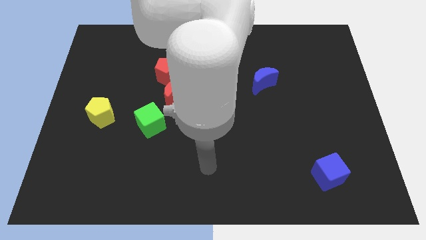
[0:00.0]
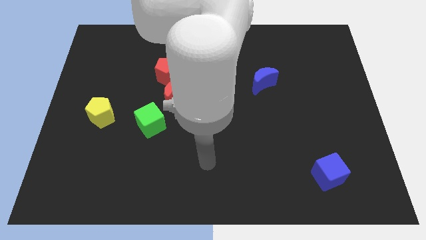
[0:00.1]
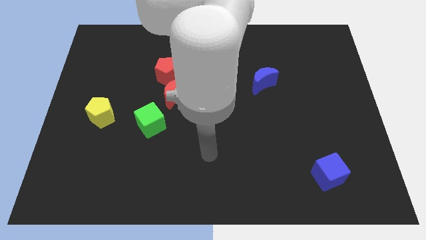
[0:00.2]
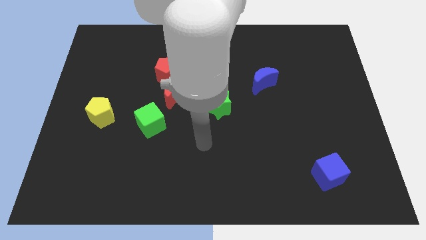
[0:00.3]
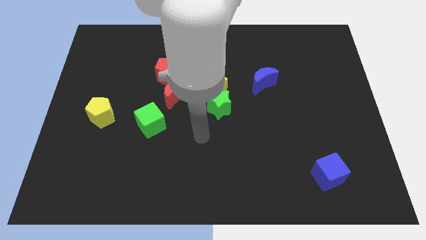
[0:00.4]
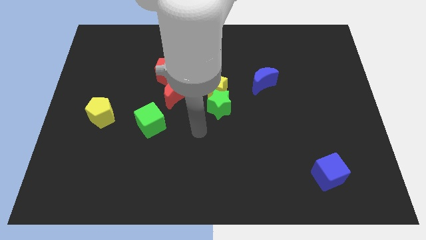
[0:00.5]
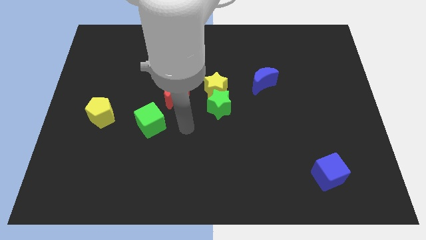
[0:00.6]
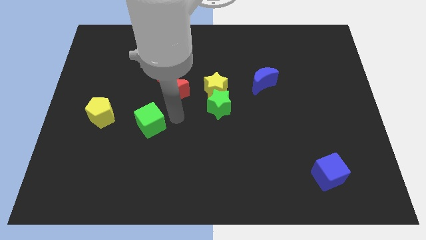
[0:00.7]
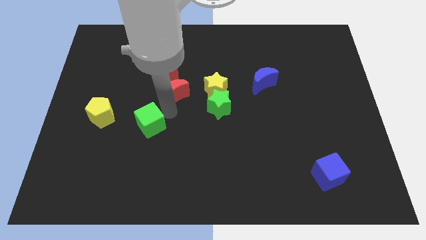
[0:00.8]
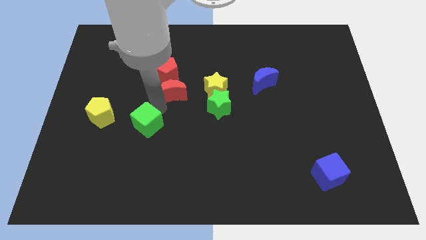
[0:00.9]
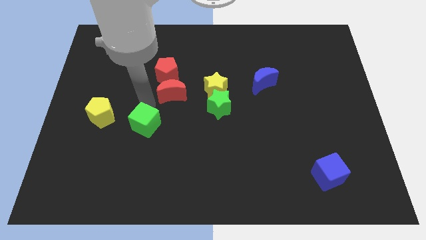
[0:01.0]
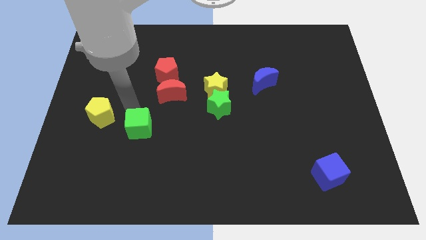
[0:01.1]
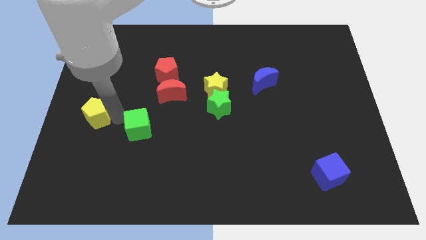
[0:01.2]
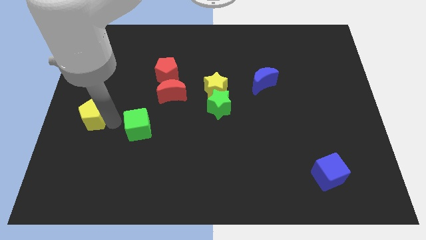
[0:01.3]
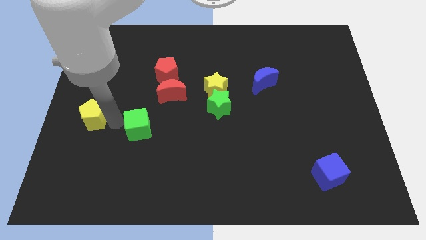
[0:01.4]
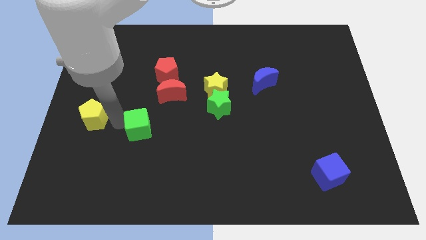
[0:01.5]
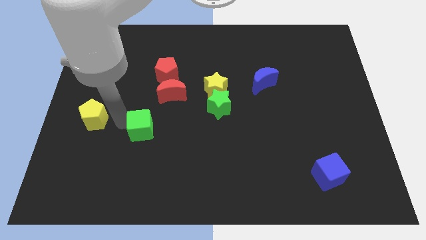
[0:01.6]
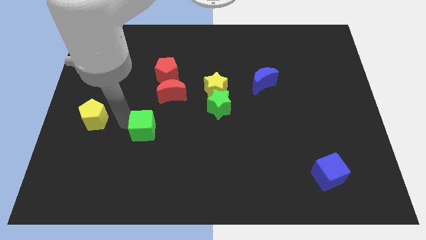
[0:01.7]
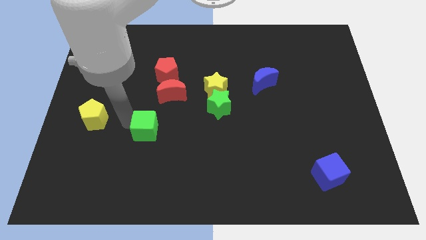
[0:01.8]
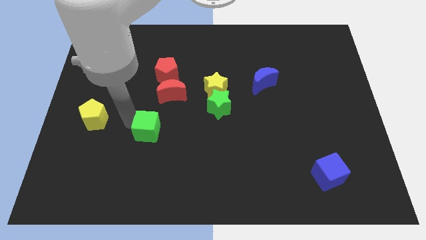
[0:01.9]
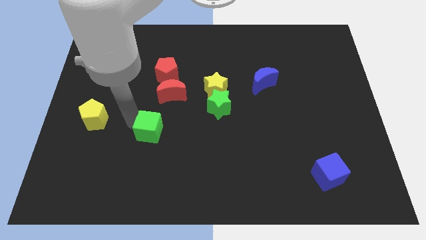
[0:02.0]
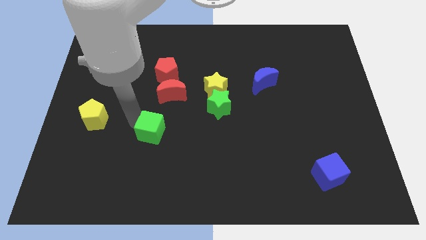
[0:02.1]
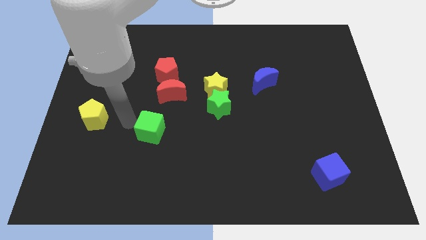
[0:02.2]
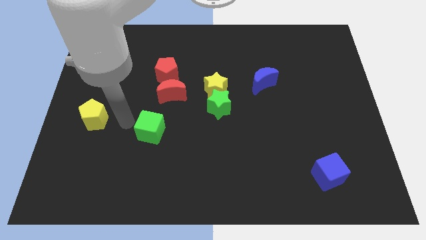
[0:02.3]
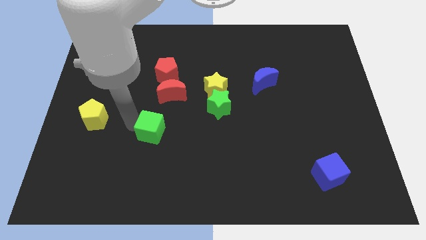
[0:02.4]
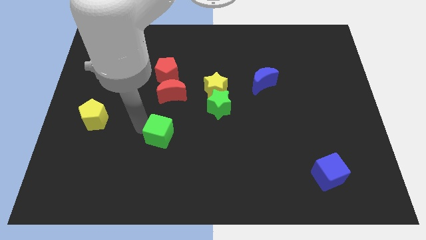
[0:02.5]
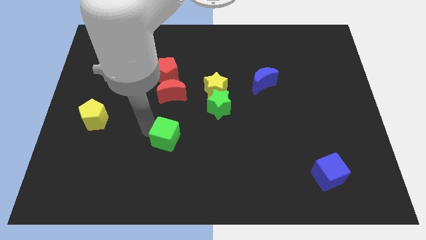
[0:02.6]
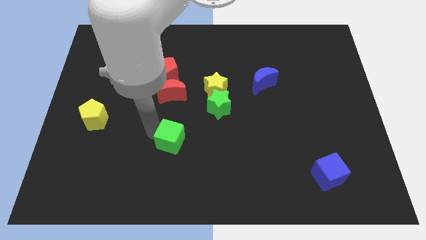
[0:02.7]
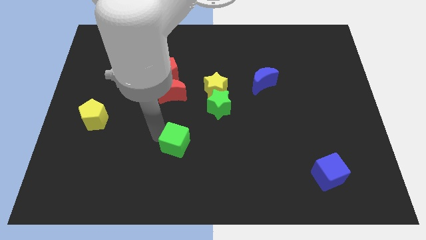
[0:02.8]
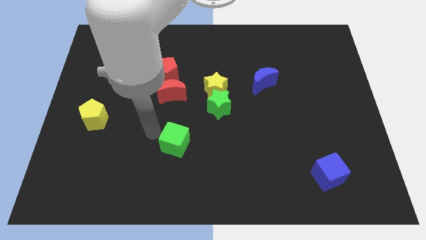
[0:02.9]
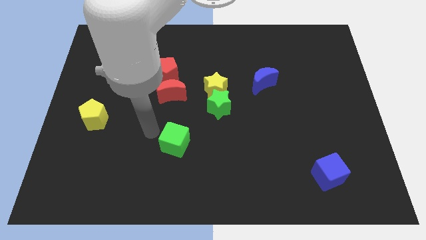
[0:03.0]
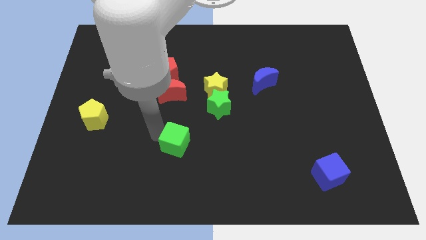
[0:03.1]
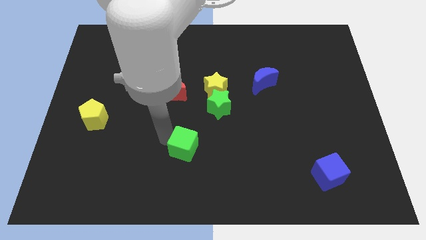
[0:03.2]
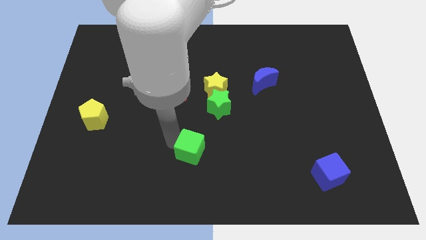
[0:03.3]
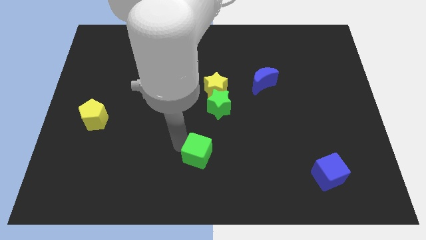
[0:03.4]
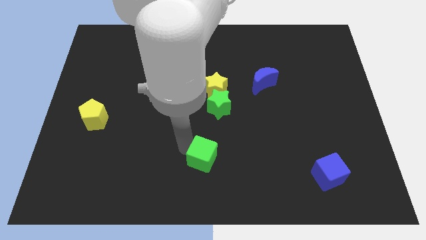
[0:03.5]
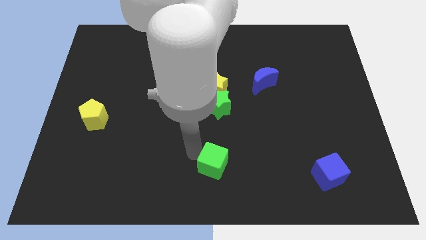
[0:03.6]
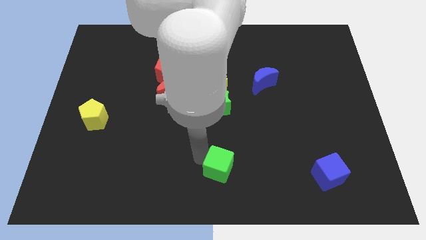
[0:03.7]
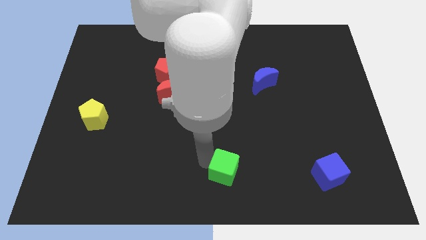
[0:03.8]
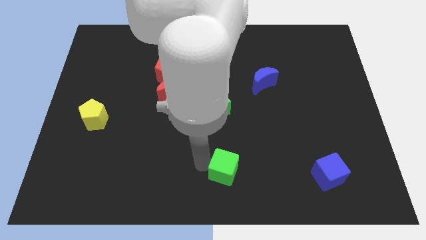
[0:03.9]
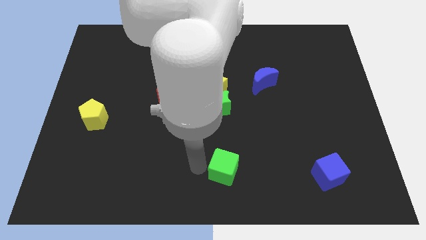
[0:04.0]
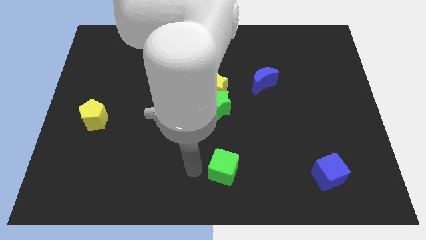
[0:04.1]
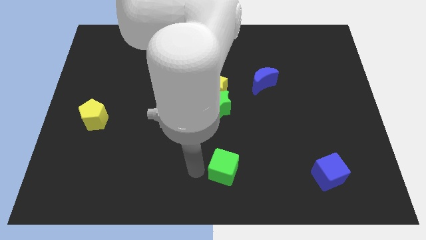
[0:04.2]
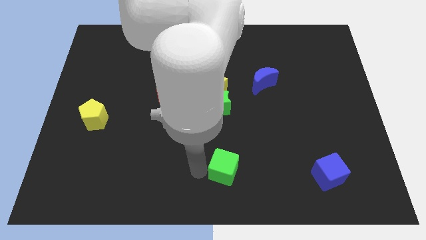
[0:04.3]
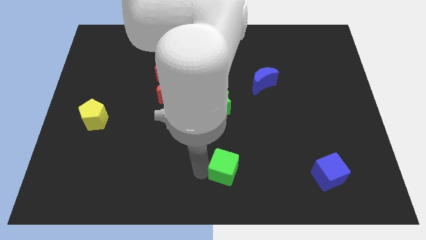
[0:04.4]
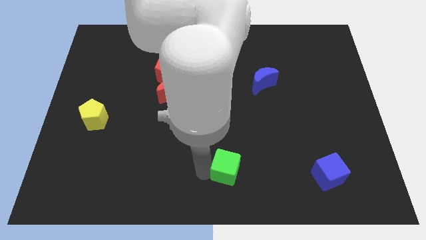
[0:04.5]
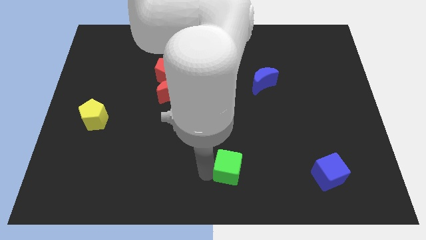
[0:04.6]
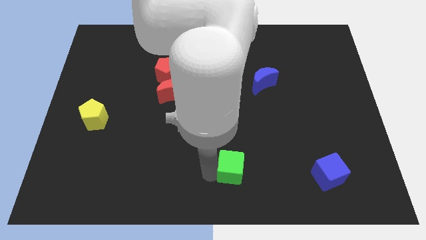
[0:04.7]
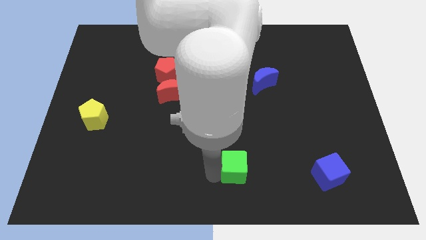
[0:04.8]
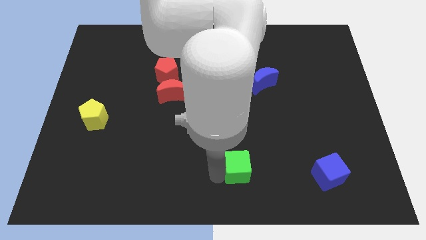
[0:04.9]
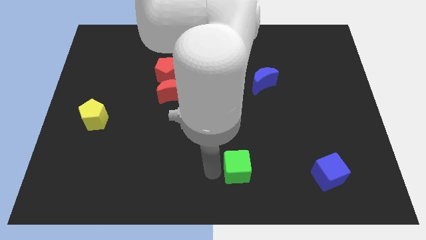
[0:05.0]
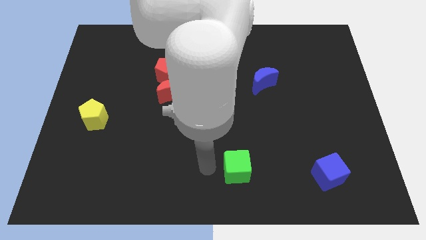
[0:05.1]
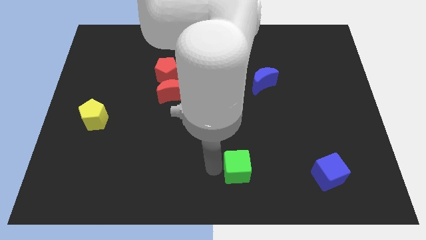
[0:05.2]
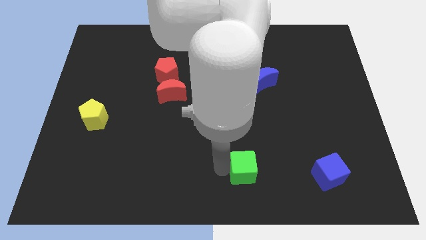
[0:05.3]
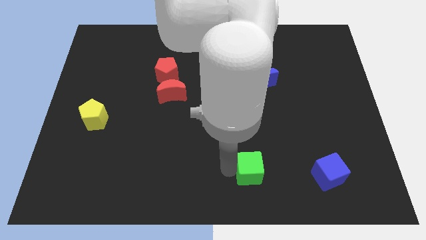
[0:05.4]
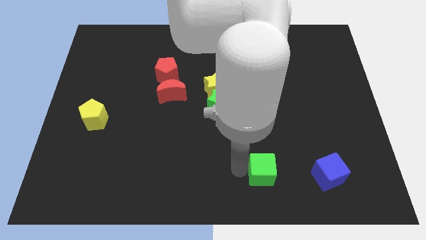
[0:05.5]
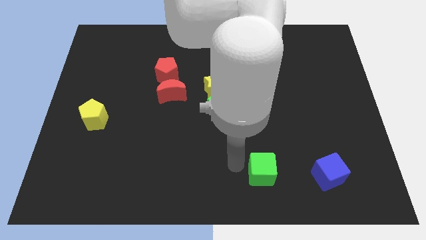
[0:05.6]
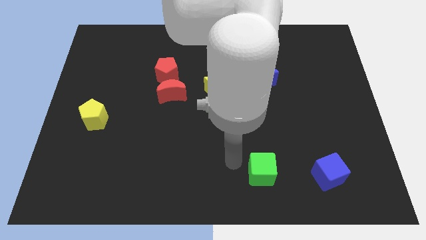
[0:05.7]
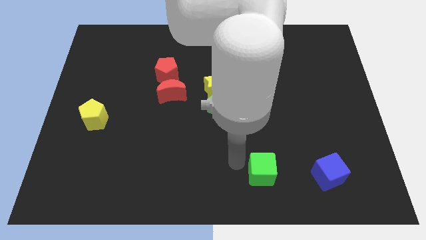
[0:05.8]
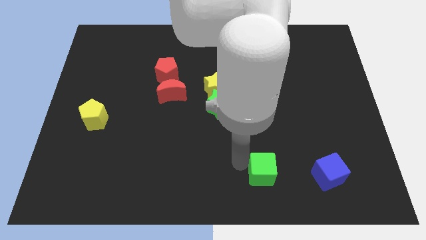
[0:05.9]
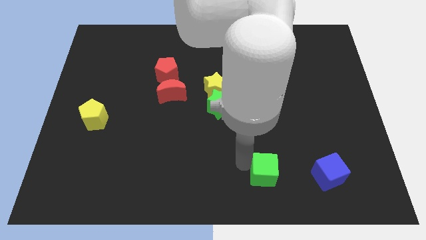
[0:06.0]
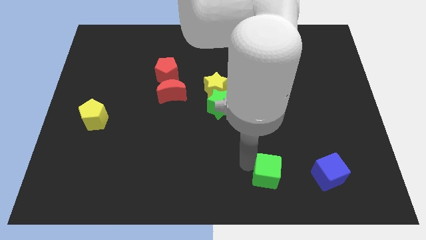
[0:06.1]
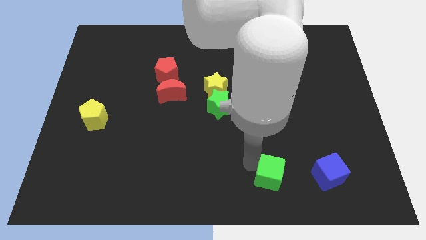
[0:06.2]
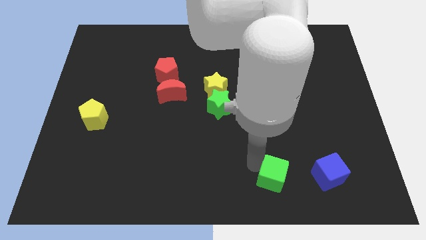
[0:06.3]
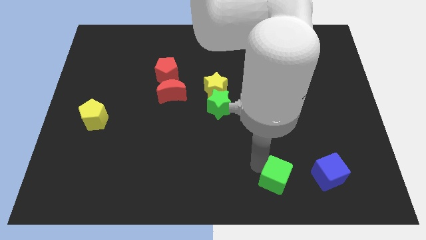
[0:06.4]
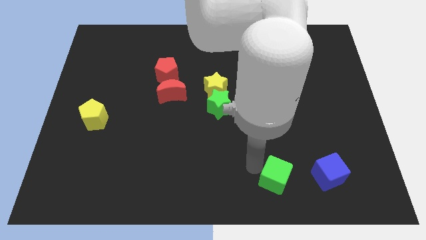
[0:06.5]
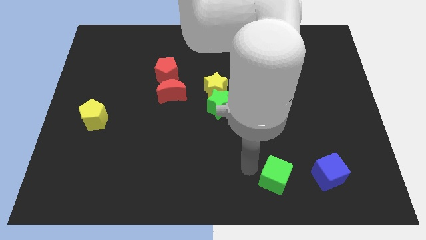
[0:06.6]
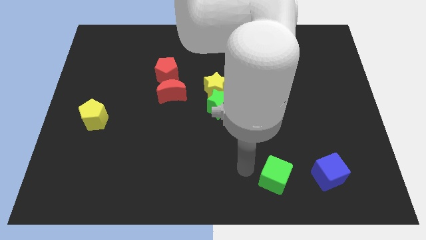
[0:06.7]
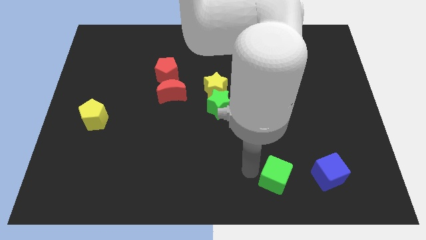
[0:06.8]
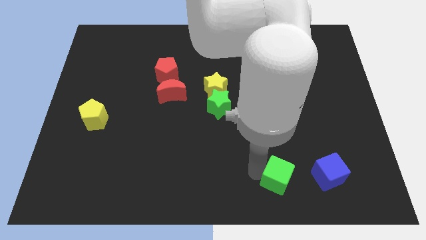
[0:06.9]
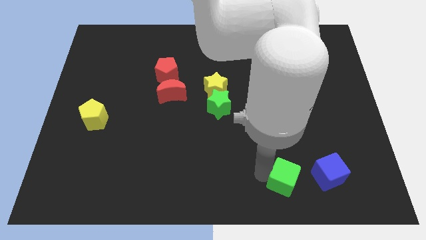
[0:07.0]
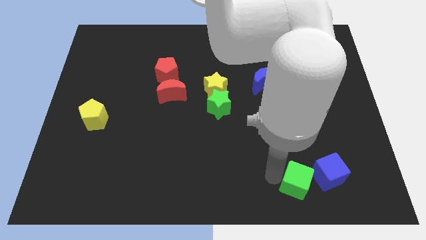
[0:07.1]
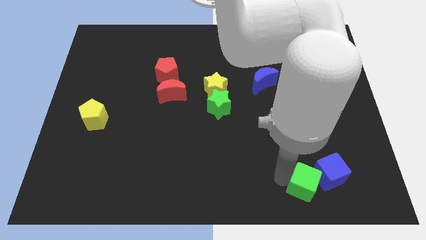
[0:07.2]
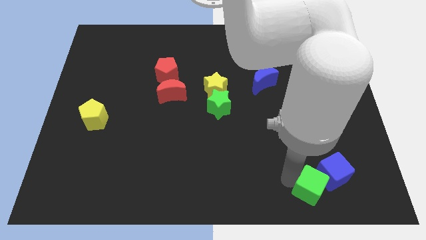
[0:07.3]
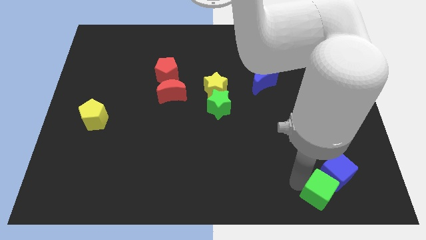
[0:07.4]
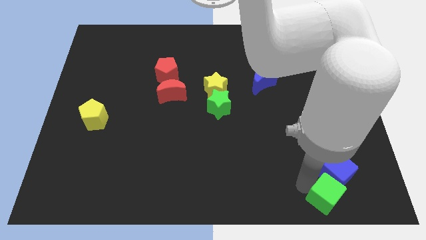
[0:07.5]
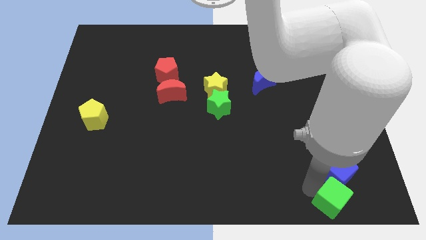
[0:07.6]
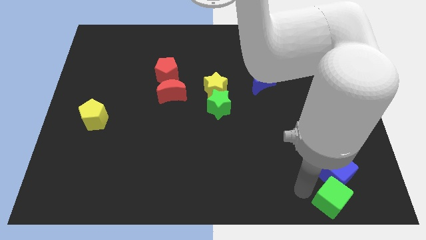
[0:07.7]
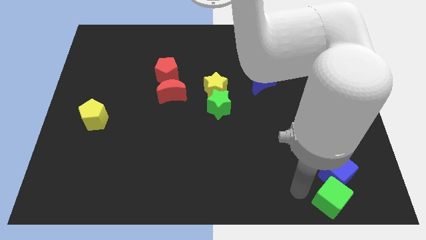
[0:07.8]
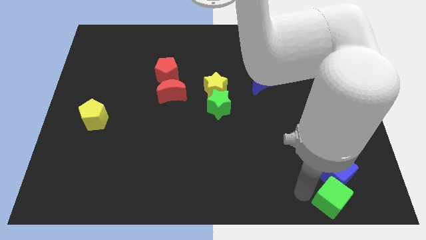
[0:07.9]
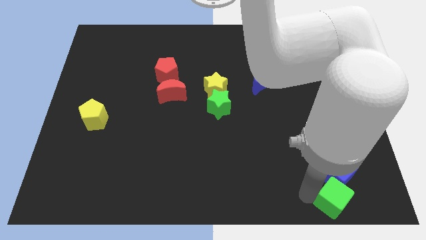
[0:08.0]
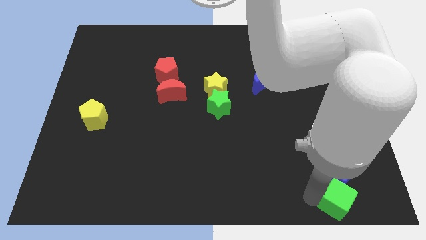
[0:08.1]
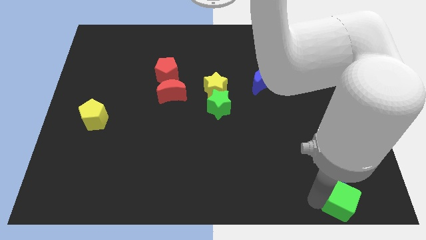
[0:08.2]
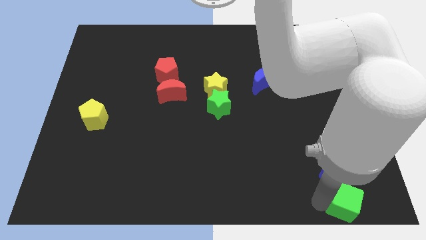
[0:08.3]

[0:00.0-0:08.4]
put the green cube to the bottom right corner
